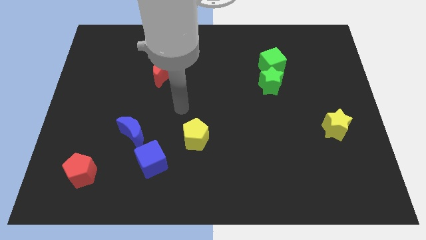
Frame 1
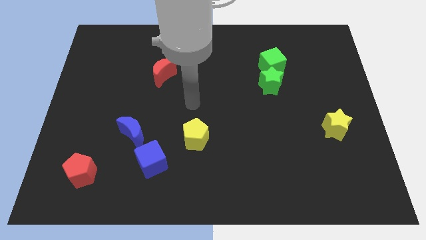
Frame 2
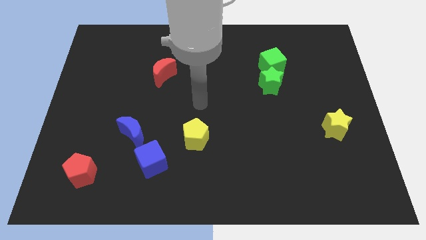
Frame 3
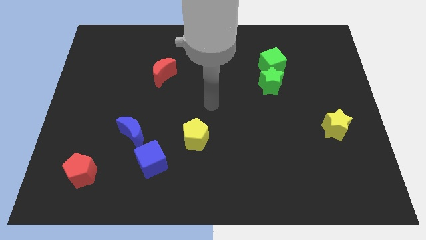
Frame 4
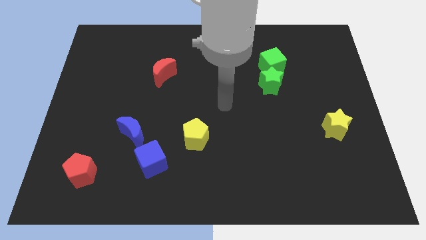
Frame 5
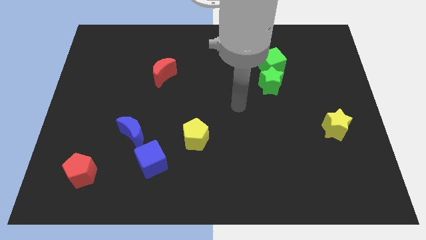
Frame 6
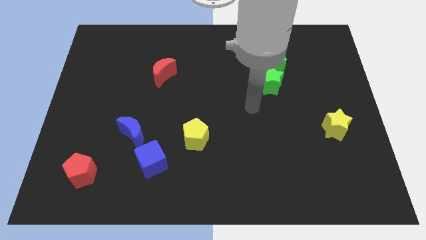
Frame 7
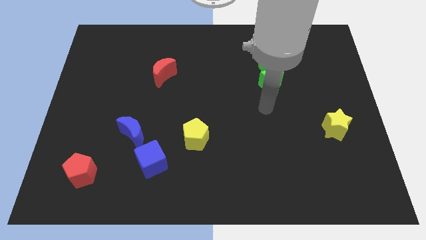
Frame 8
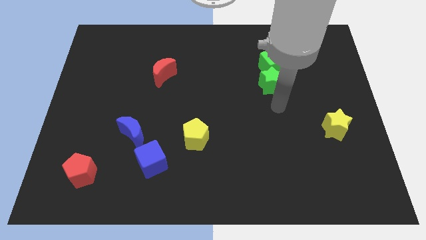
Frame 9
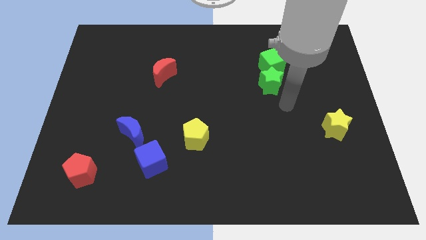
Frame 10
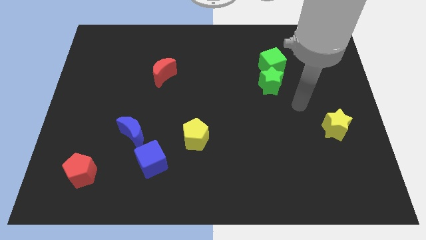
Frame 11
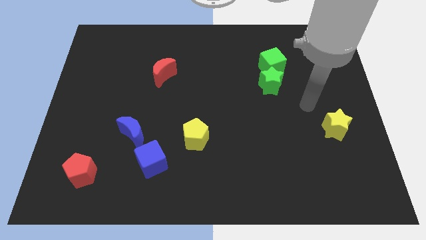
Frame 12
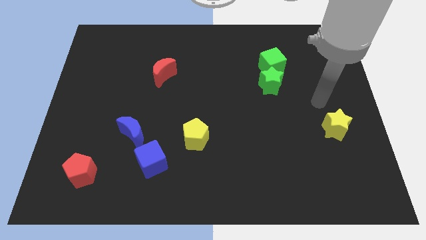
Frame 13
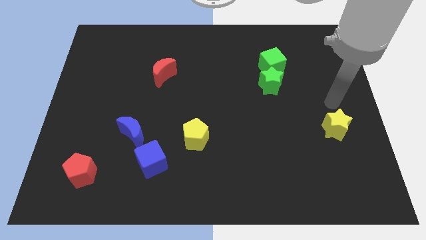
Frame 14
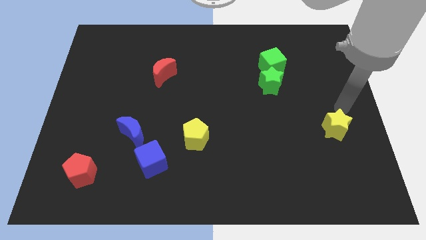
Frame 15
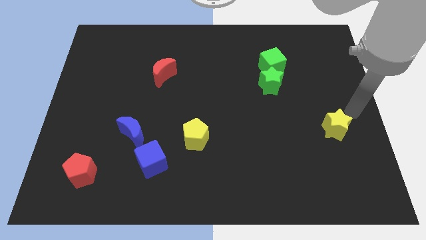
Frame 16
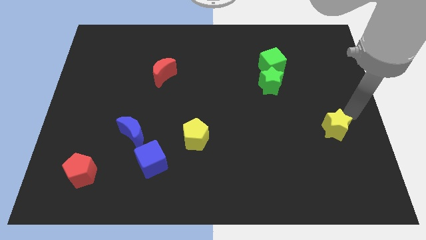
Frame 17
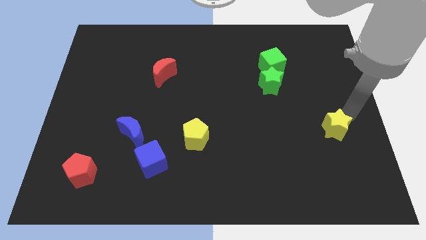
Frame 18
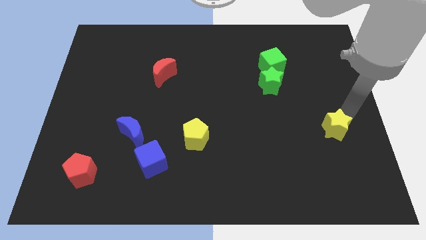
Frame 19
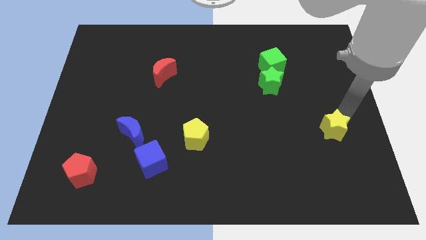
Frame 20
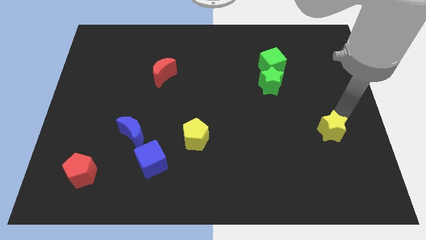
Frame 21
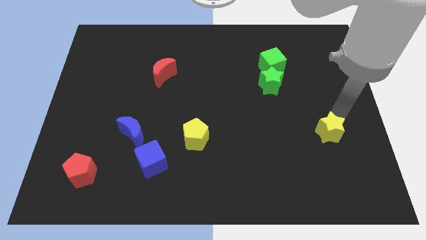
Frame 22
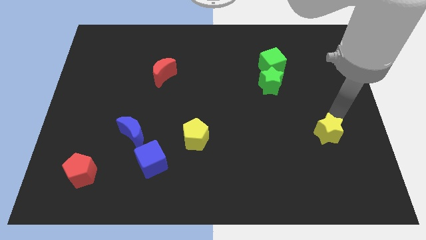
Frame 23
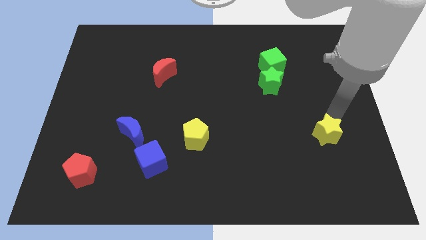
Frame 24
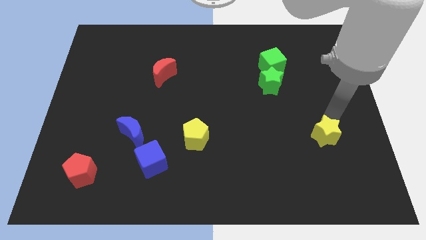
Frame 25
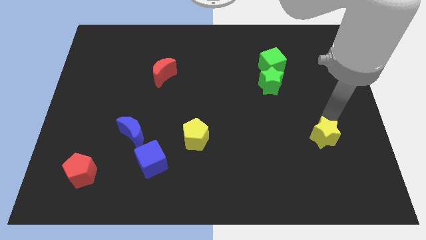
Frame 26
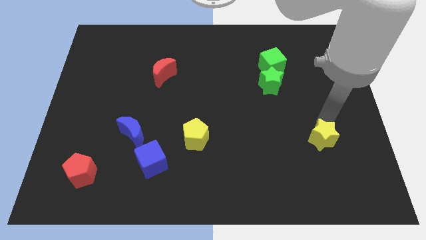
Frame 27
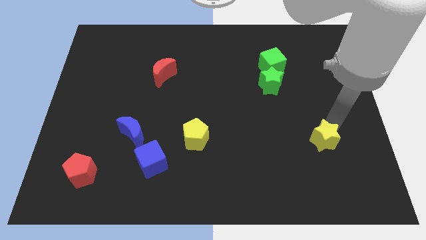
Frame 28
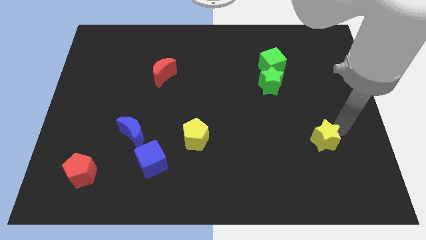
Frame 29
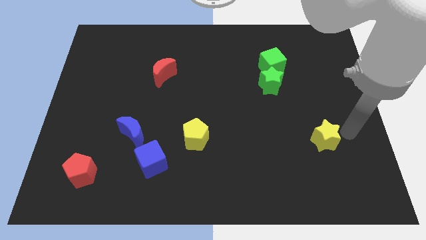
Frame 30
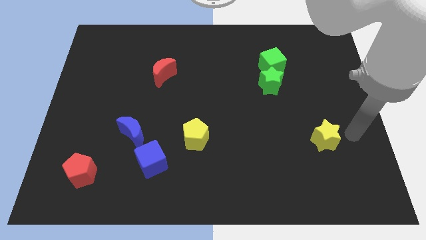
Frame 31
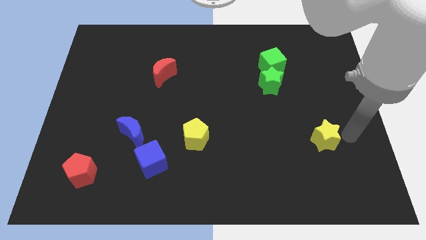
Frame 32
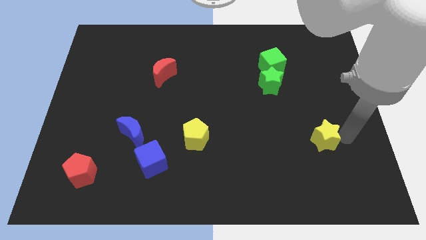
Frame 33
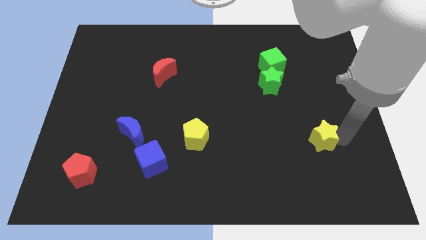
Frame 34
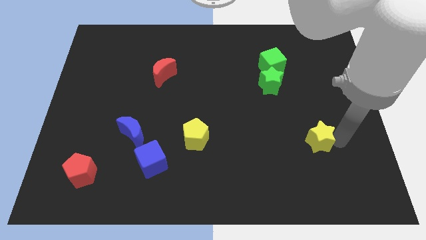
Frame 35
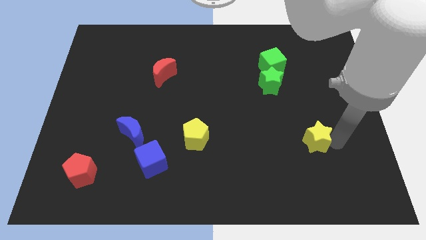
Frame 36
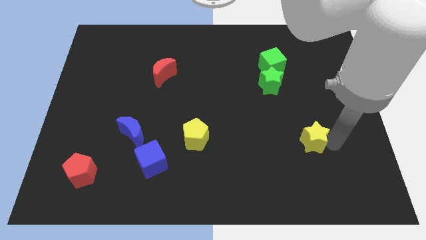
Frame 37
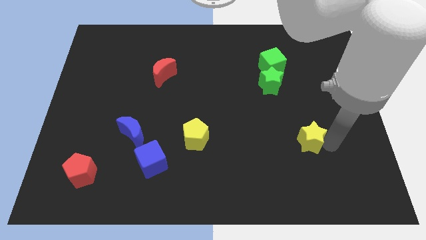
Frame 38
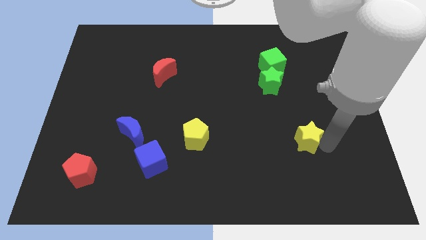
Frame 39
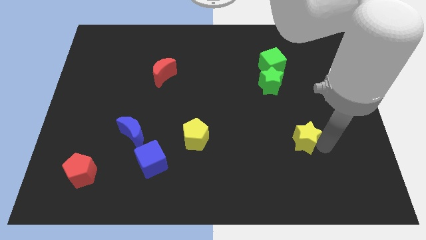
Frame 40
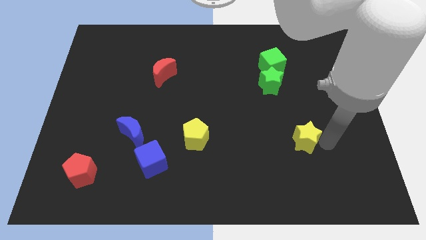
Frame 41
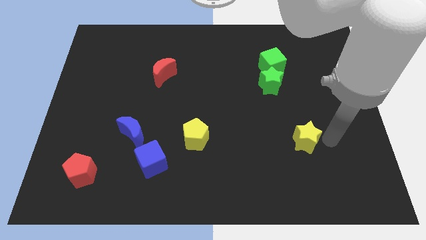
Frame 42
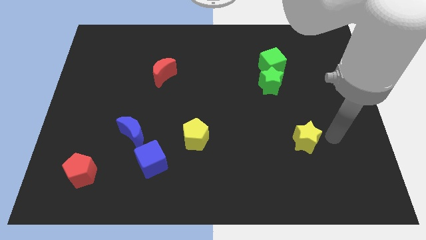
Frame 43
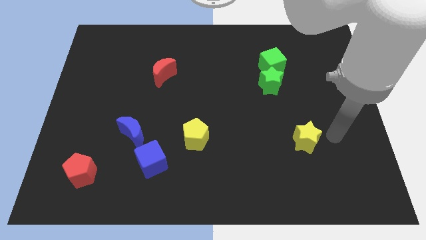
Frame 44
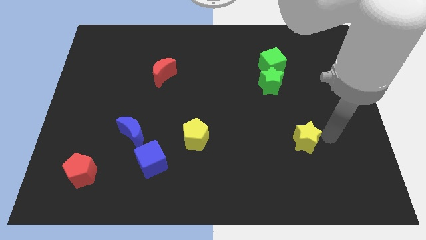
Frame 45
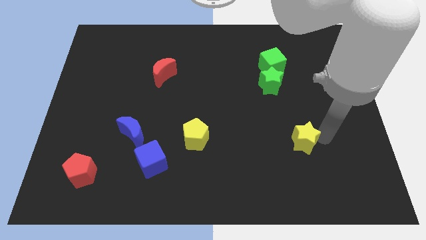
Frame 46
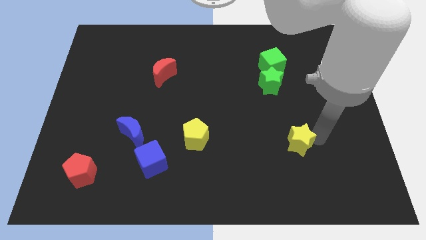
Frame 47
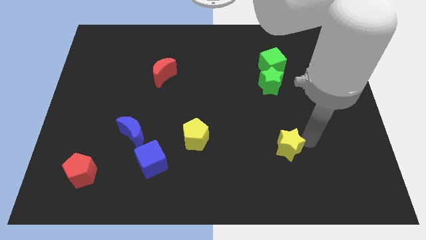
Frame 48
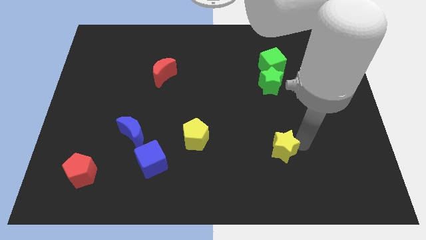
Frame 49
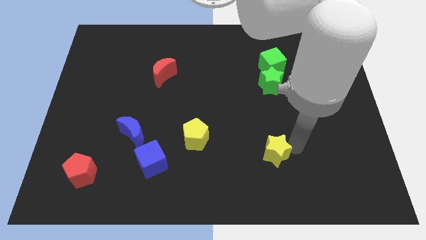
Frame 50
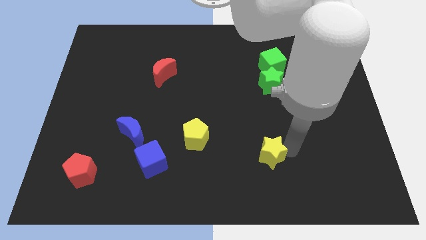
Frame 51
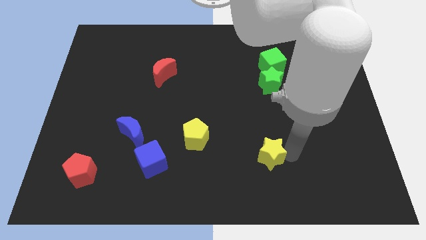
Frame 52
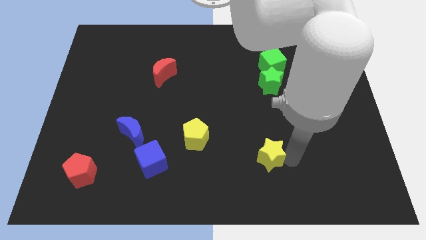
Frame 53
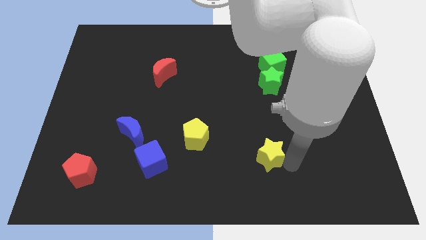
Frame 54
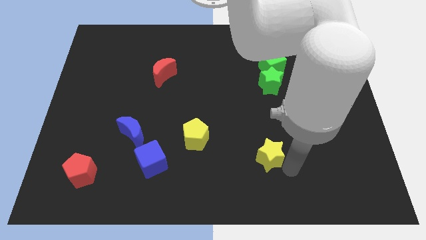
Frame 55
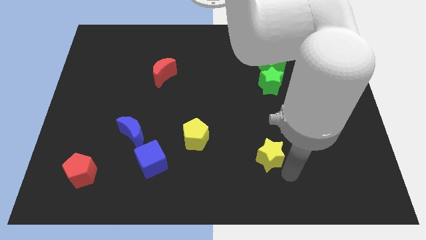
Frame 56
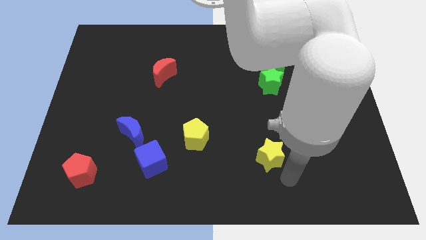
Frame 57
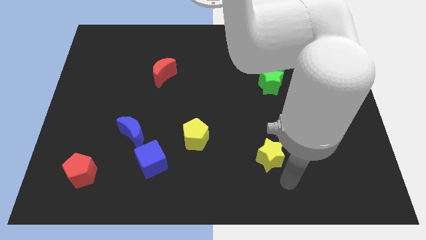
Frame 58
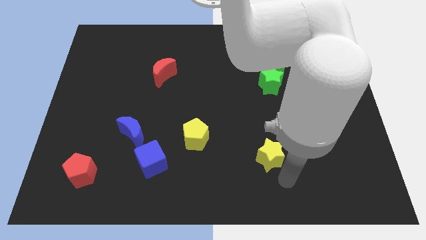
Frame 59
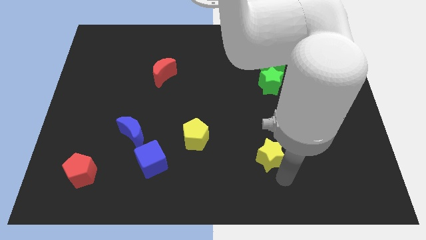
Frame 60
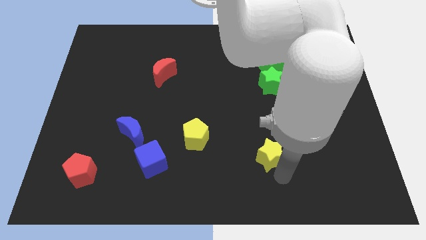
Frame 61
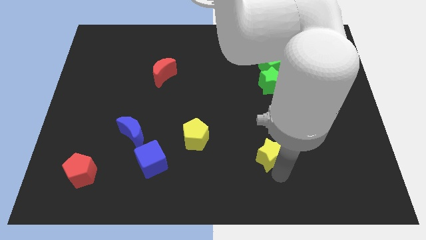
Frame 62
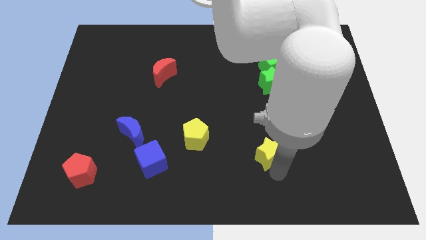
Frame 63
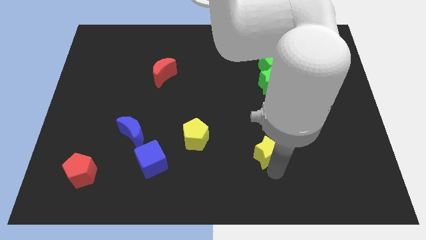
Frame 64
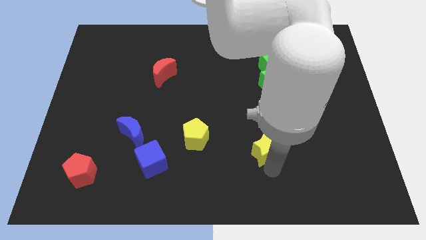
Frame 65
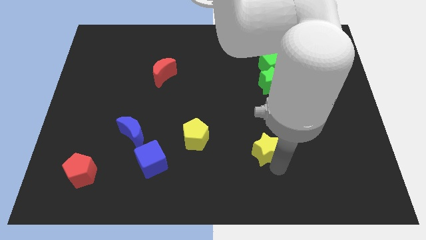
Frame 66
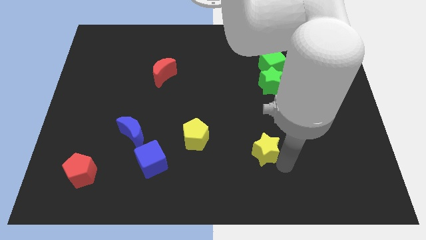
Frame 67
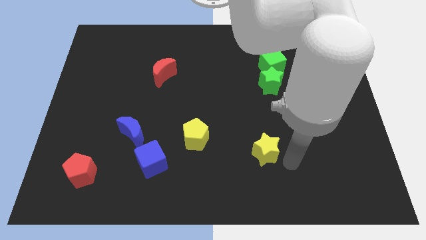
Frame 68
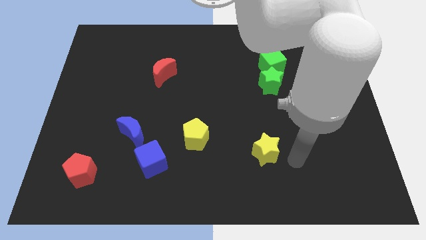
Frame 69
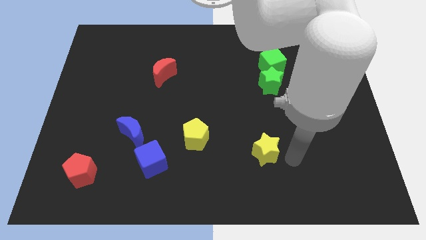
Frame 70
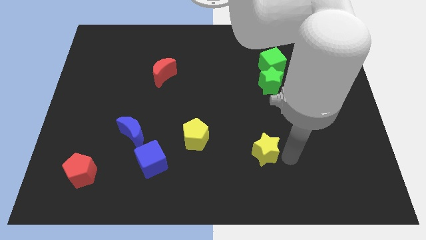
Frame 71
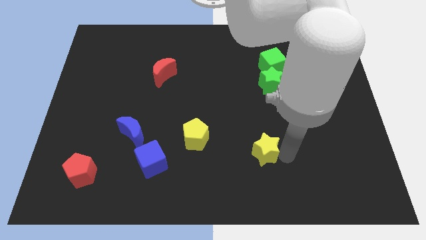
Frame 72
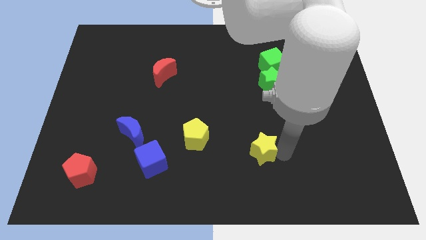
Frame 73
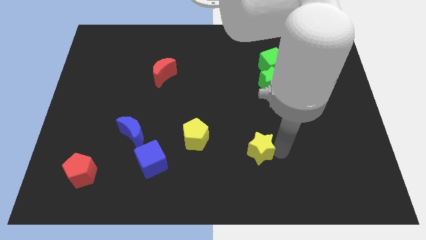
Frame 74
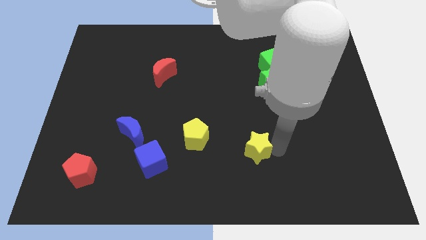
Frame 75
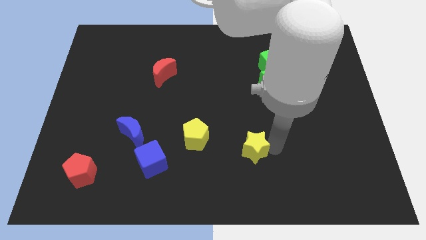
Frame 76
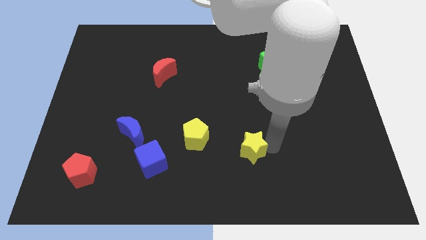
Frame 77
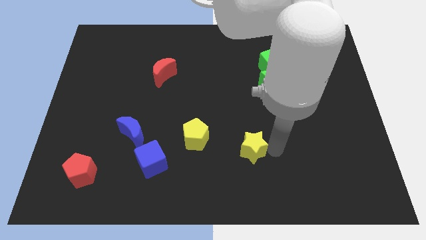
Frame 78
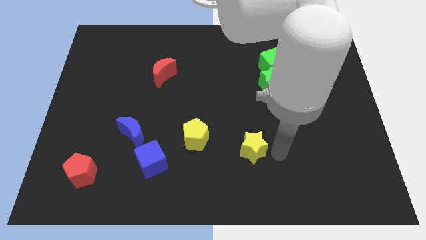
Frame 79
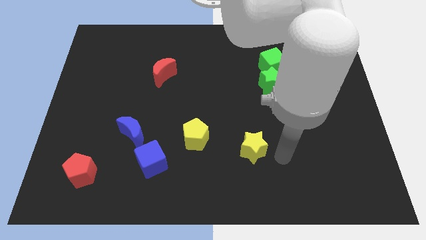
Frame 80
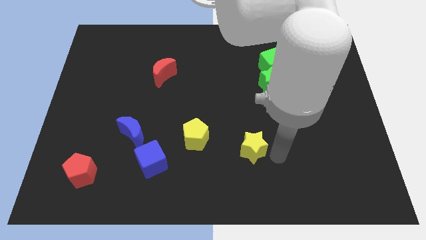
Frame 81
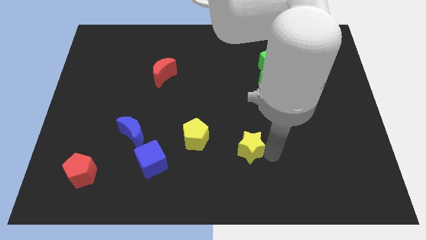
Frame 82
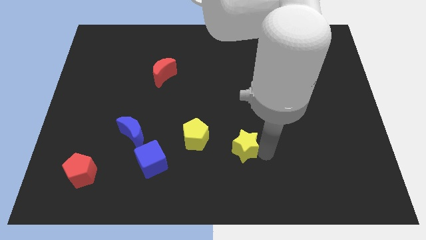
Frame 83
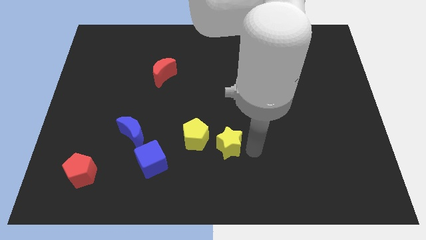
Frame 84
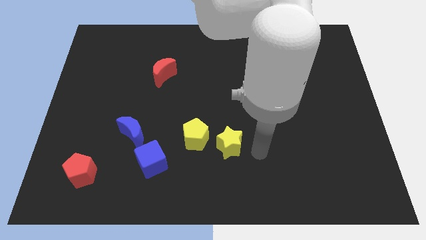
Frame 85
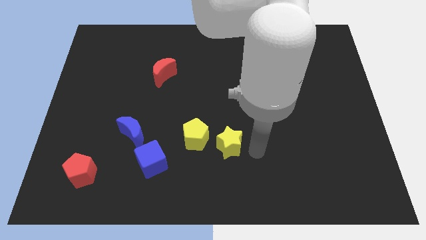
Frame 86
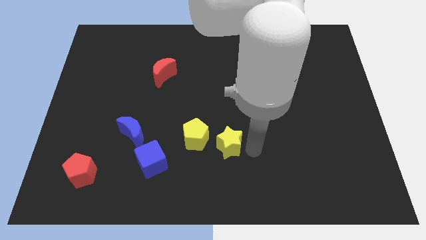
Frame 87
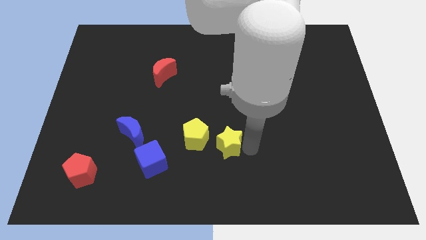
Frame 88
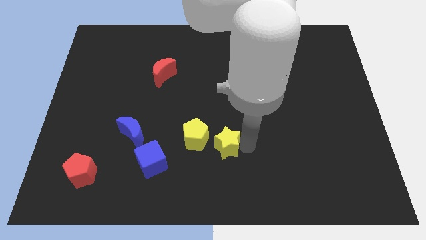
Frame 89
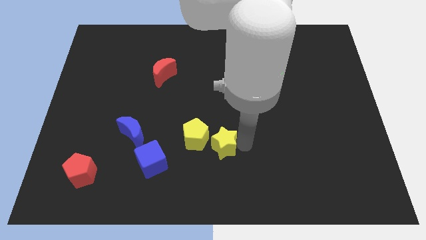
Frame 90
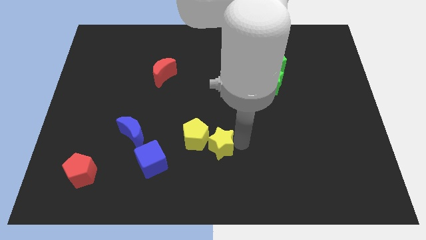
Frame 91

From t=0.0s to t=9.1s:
put the yellow star to the yellow pentagon
